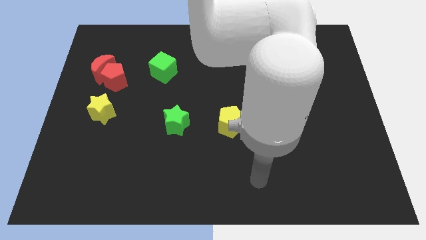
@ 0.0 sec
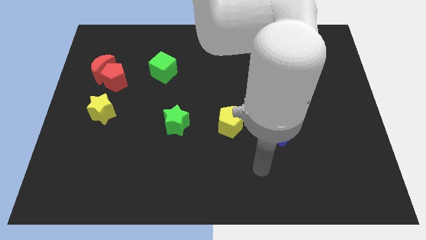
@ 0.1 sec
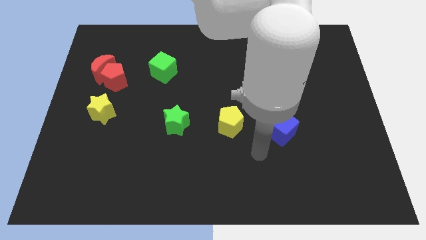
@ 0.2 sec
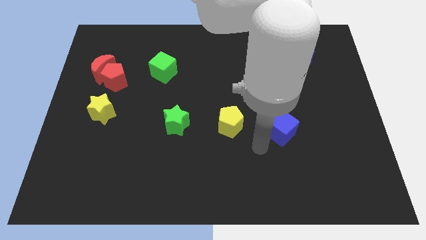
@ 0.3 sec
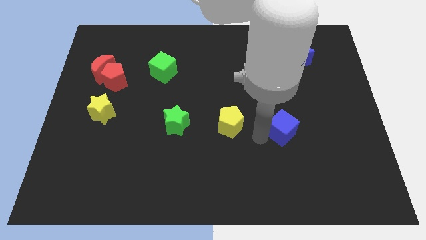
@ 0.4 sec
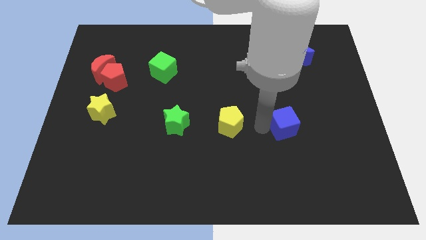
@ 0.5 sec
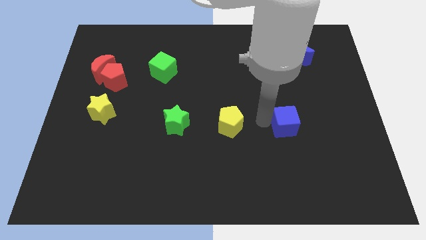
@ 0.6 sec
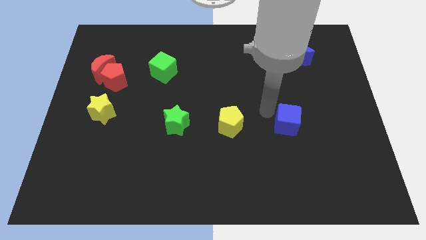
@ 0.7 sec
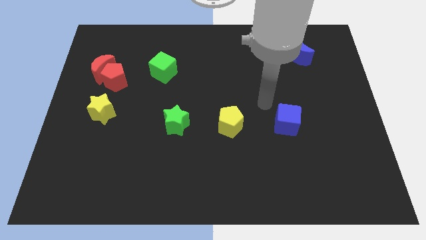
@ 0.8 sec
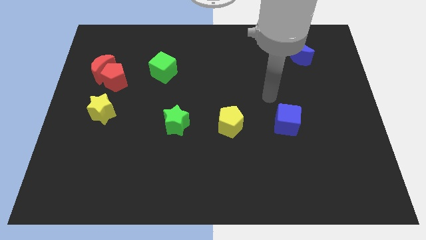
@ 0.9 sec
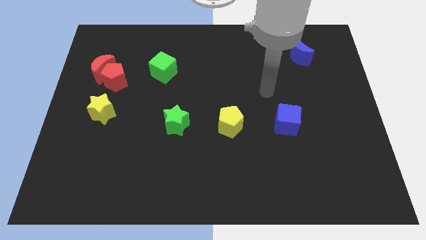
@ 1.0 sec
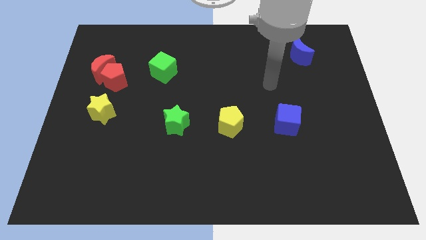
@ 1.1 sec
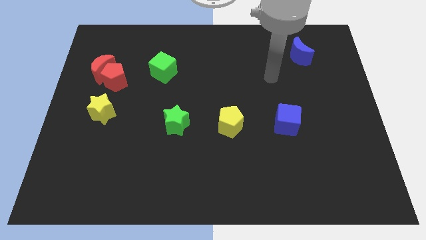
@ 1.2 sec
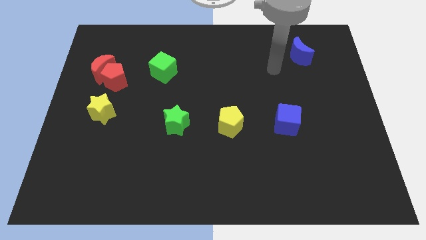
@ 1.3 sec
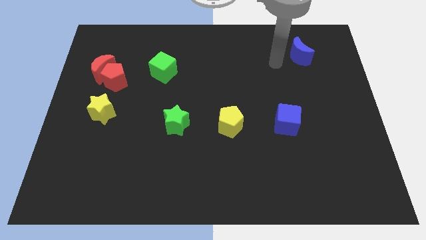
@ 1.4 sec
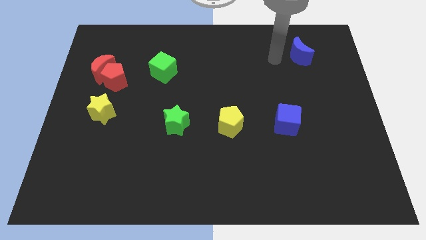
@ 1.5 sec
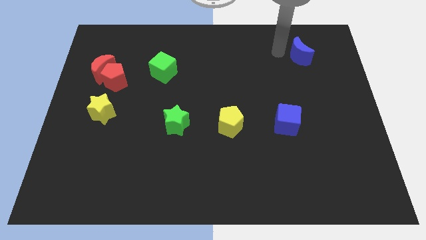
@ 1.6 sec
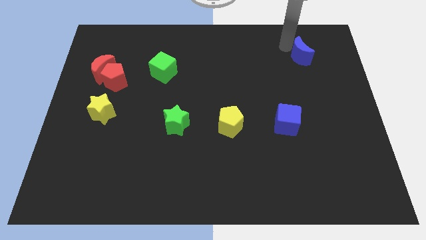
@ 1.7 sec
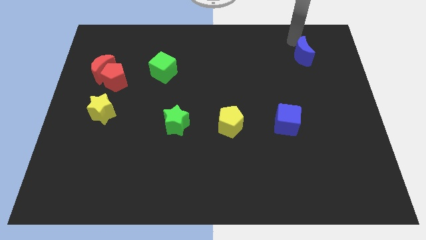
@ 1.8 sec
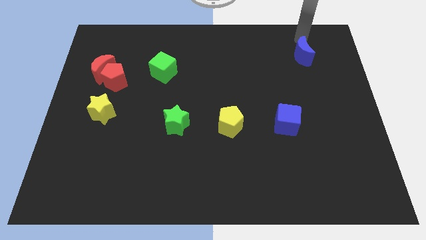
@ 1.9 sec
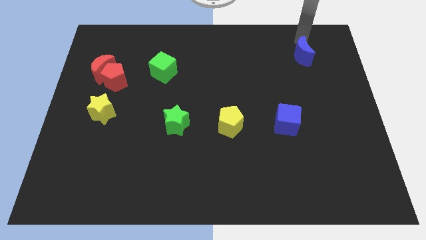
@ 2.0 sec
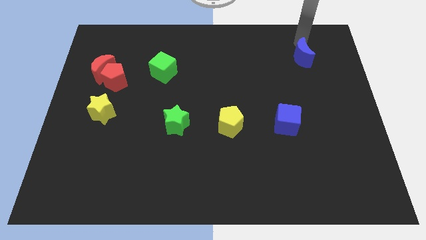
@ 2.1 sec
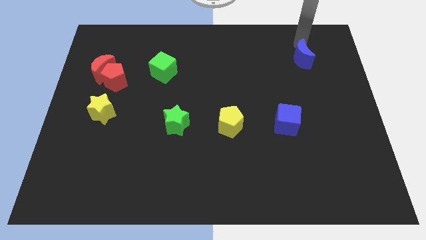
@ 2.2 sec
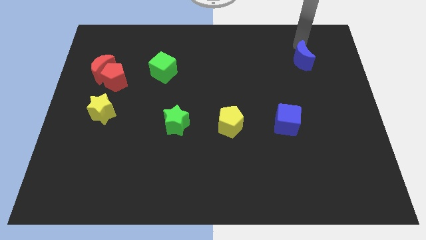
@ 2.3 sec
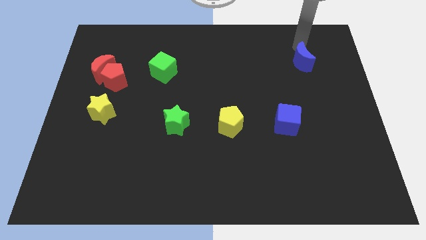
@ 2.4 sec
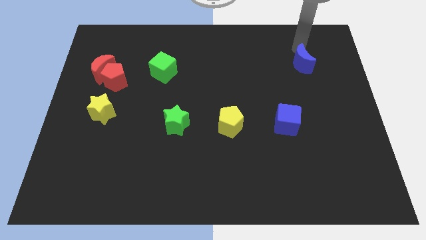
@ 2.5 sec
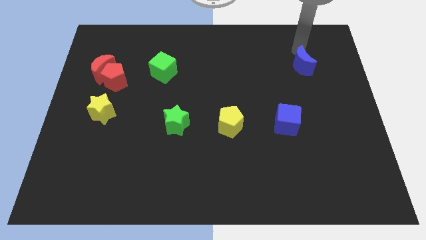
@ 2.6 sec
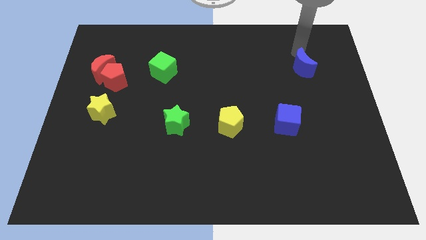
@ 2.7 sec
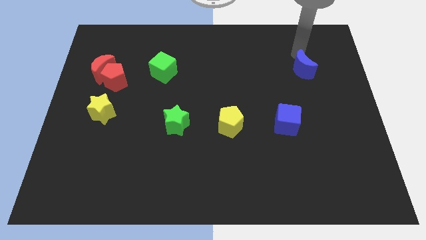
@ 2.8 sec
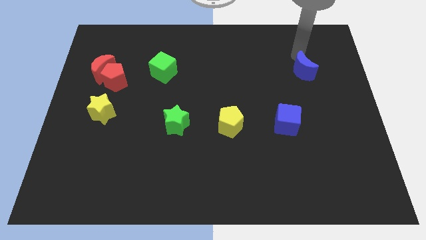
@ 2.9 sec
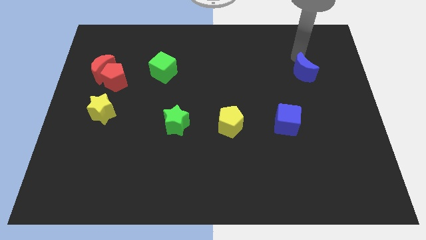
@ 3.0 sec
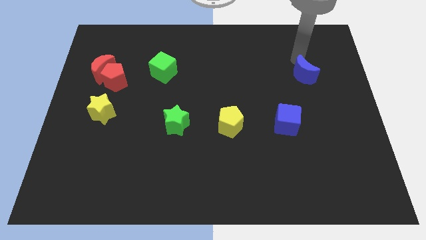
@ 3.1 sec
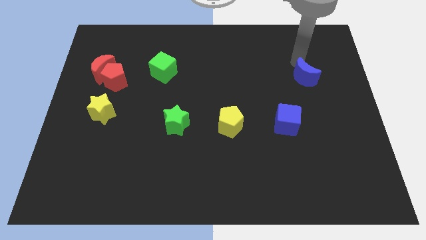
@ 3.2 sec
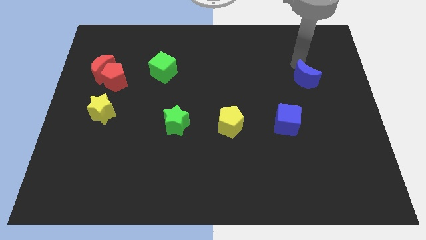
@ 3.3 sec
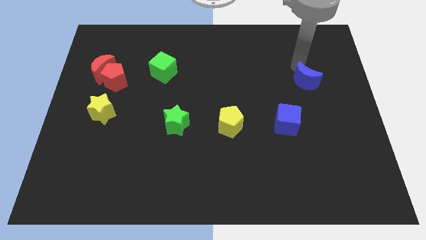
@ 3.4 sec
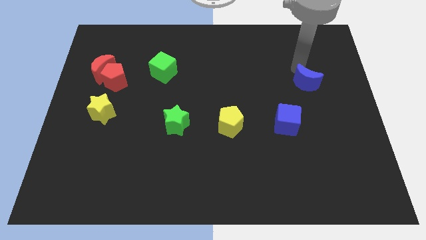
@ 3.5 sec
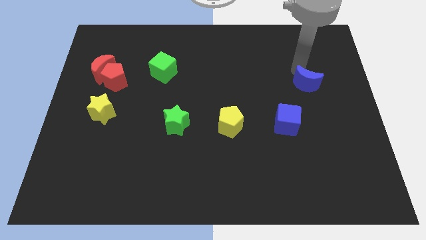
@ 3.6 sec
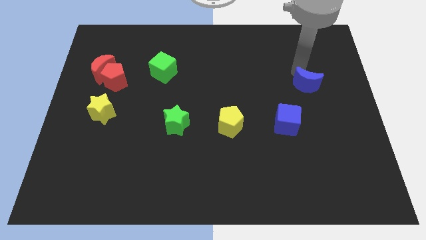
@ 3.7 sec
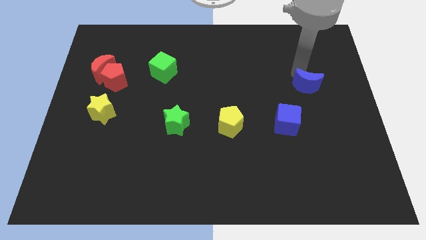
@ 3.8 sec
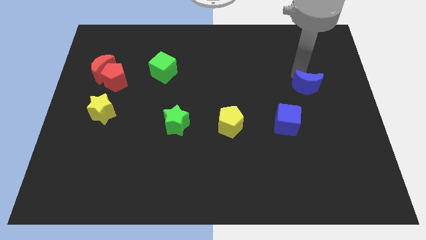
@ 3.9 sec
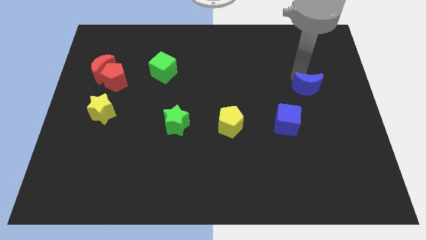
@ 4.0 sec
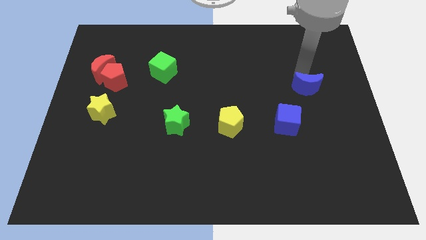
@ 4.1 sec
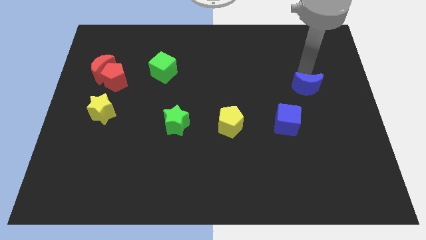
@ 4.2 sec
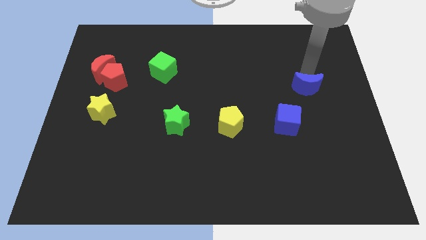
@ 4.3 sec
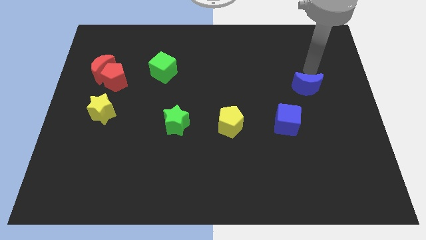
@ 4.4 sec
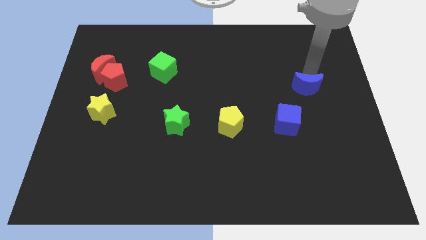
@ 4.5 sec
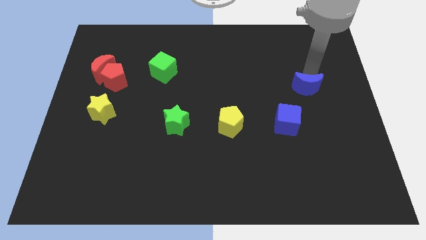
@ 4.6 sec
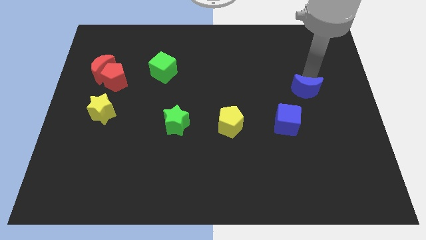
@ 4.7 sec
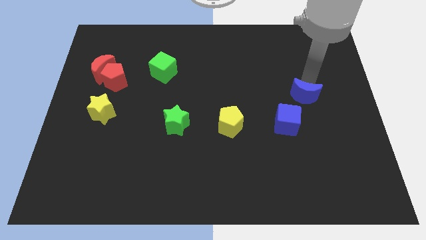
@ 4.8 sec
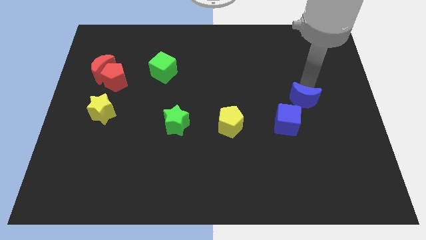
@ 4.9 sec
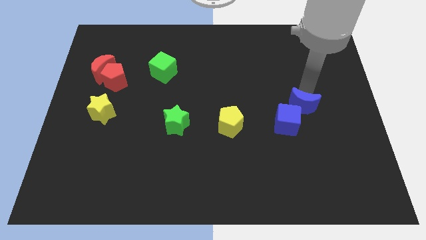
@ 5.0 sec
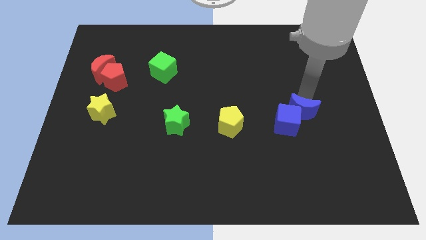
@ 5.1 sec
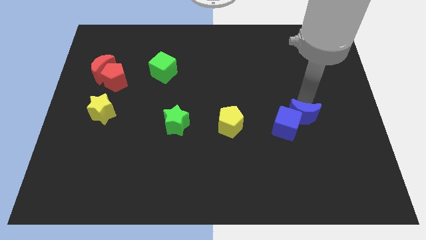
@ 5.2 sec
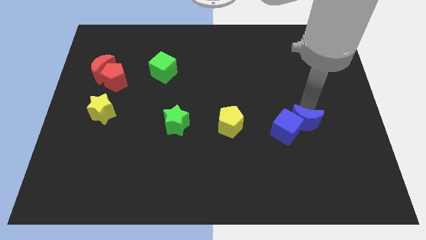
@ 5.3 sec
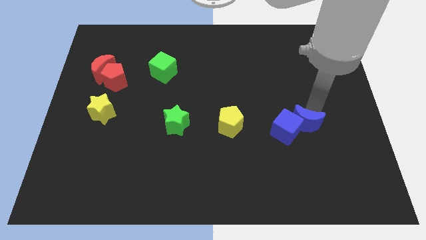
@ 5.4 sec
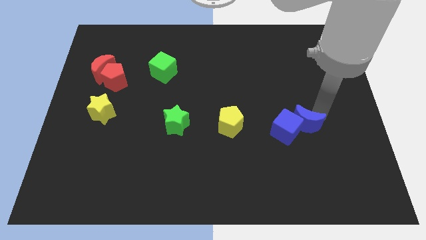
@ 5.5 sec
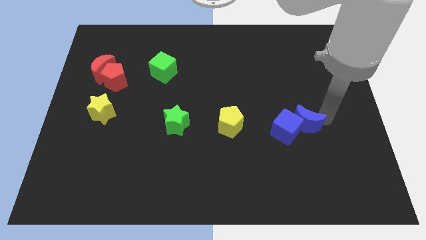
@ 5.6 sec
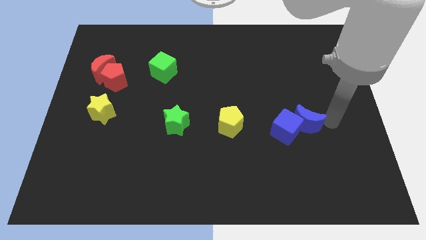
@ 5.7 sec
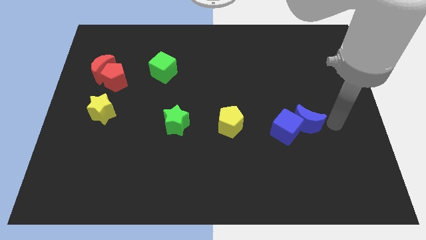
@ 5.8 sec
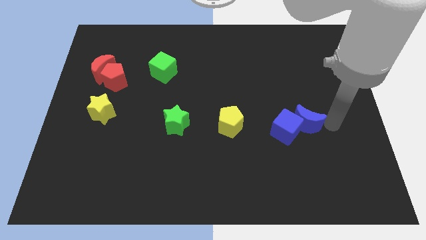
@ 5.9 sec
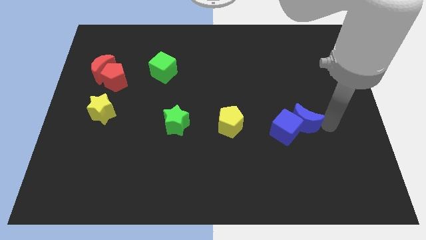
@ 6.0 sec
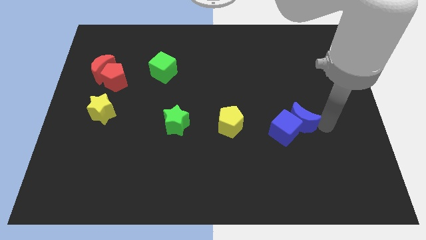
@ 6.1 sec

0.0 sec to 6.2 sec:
put the blue moon right of the yellow pentagon
